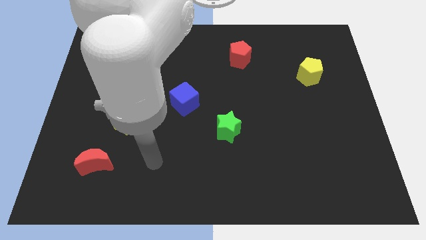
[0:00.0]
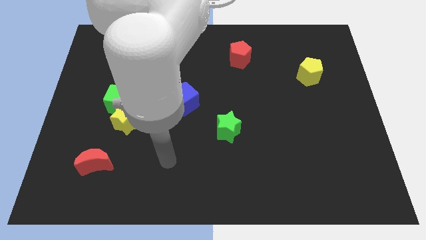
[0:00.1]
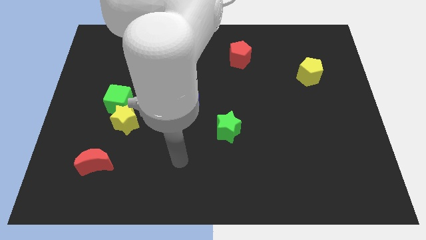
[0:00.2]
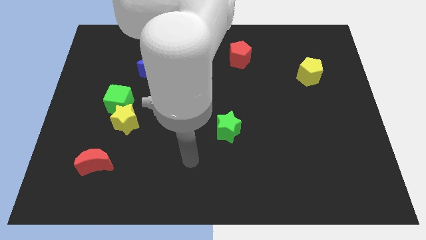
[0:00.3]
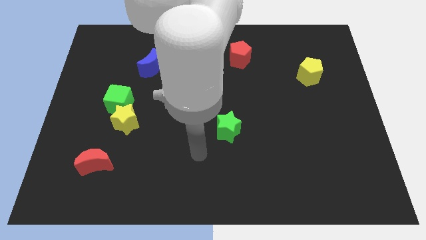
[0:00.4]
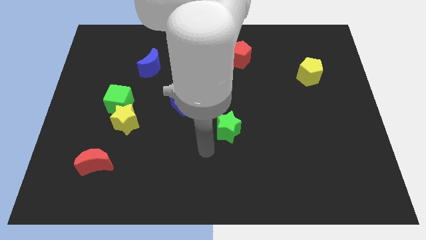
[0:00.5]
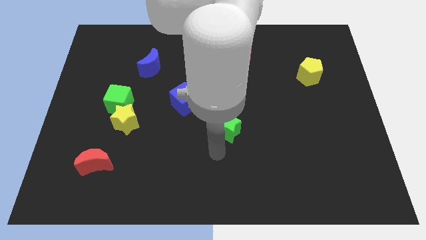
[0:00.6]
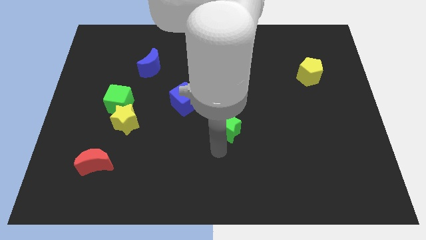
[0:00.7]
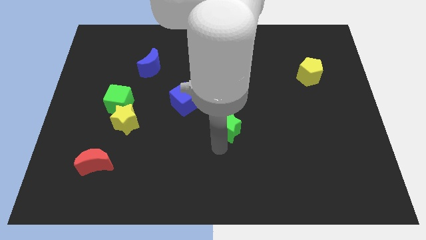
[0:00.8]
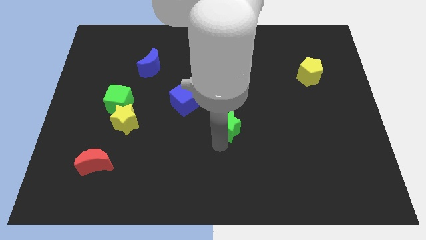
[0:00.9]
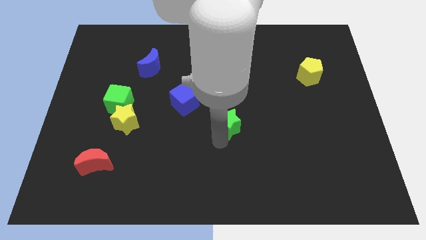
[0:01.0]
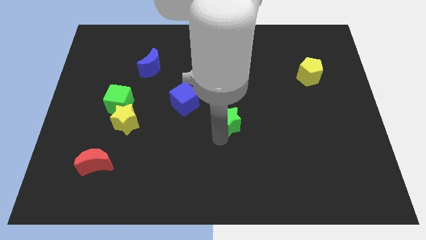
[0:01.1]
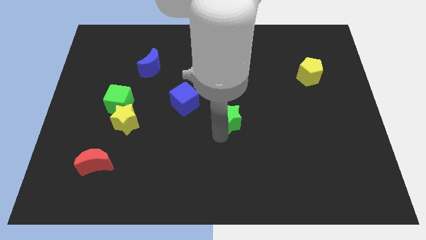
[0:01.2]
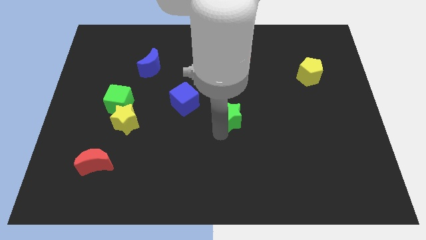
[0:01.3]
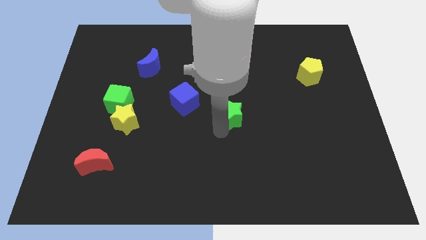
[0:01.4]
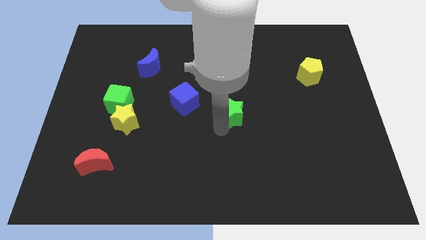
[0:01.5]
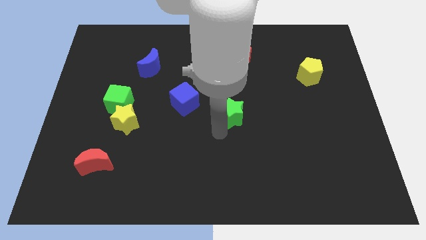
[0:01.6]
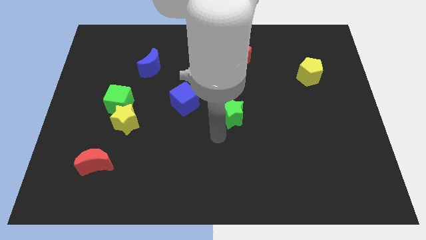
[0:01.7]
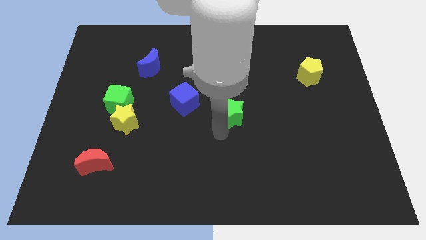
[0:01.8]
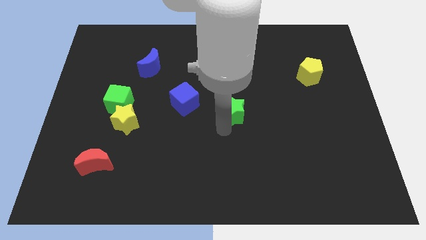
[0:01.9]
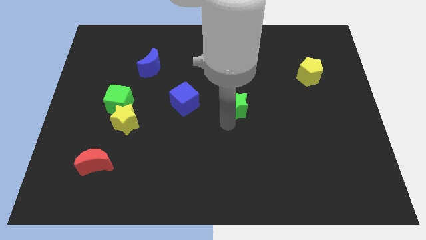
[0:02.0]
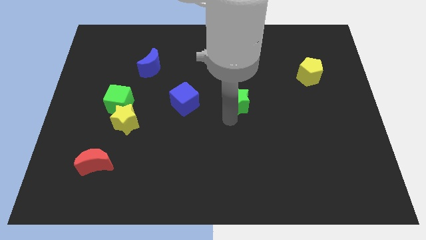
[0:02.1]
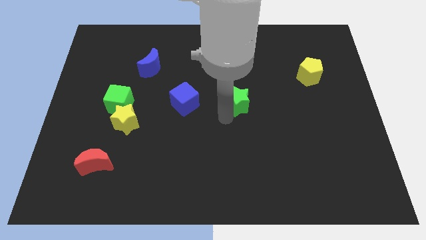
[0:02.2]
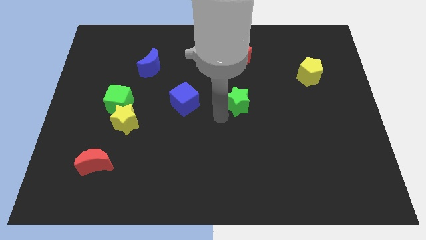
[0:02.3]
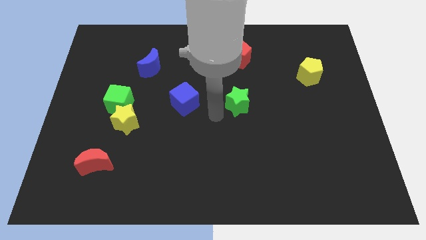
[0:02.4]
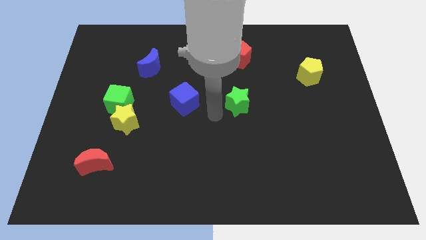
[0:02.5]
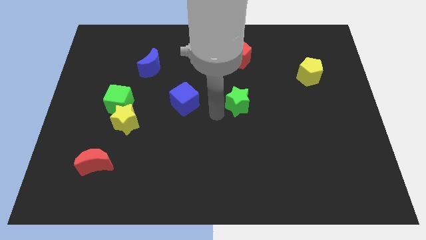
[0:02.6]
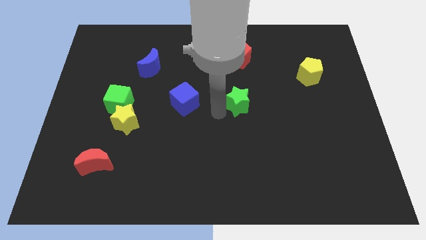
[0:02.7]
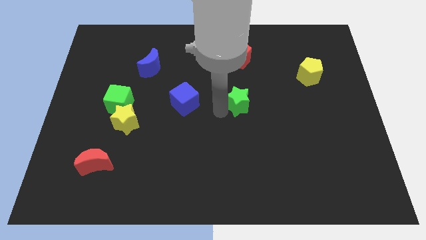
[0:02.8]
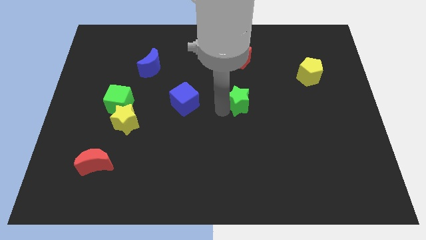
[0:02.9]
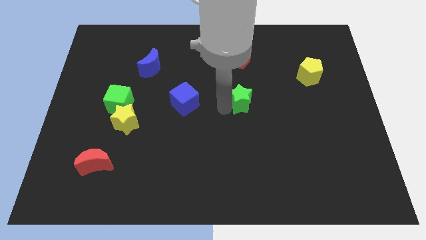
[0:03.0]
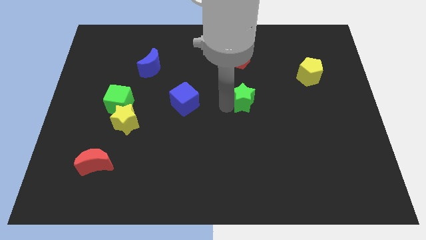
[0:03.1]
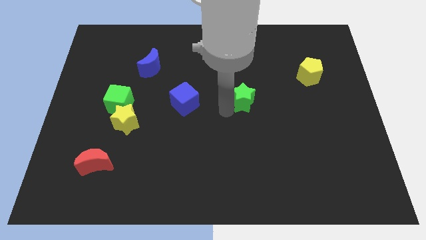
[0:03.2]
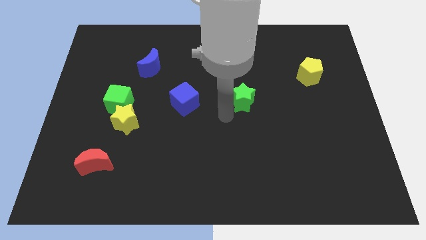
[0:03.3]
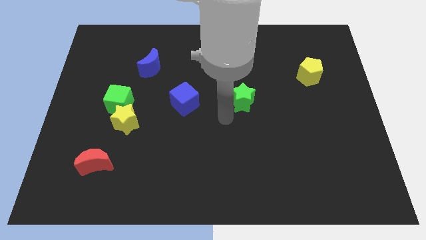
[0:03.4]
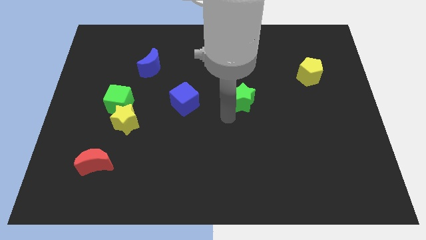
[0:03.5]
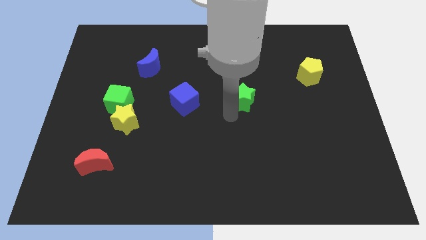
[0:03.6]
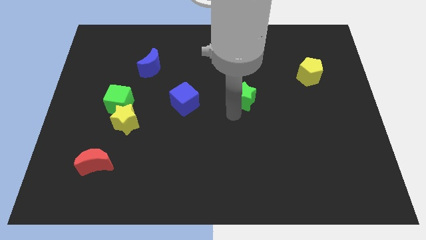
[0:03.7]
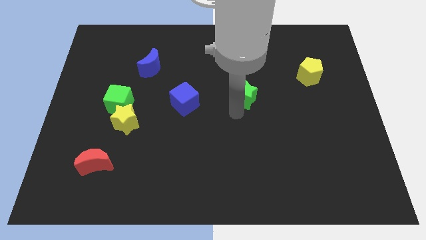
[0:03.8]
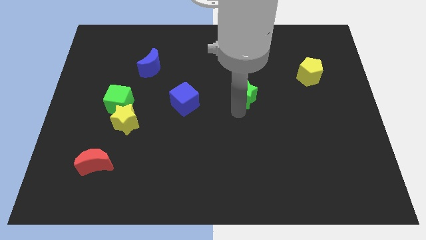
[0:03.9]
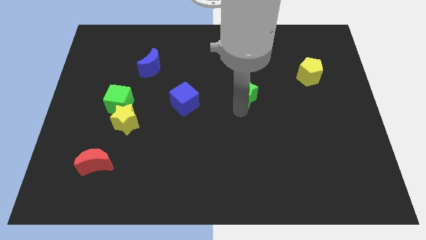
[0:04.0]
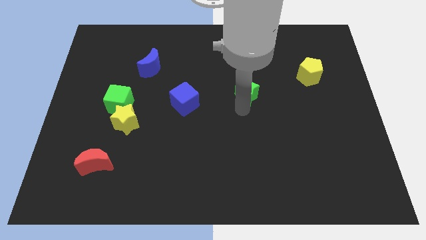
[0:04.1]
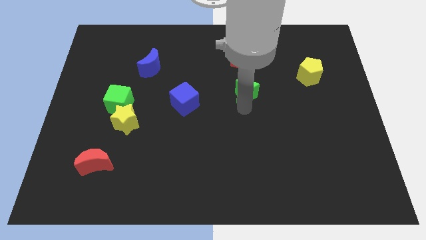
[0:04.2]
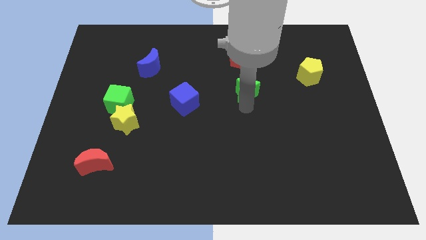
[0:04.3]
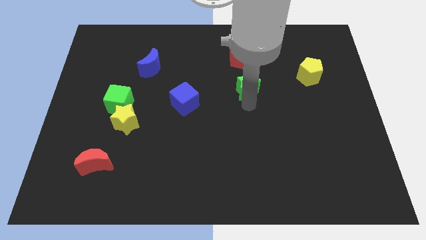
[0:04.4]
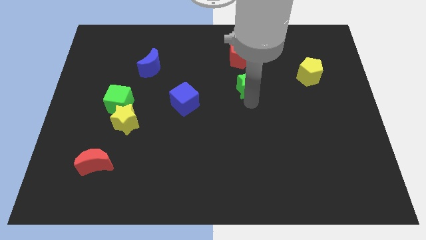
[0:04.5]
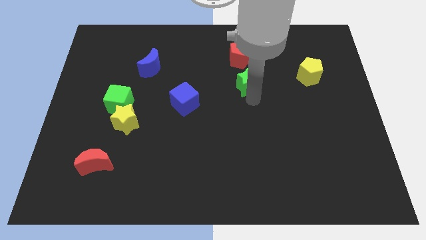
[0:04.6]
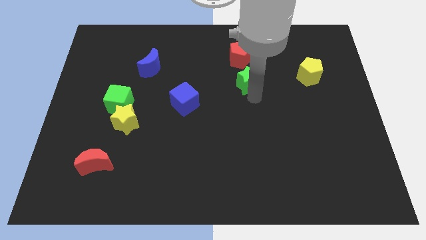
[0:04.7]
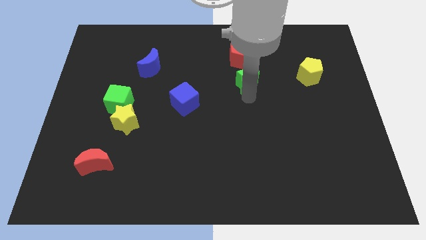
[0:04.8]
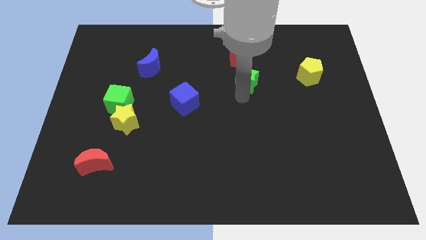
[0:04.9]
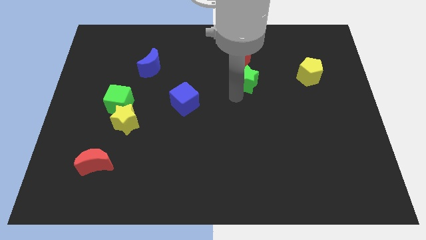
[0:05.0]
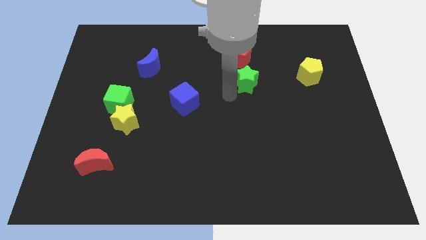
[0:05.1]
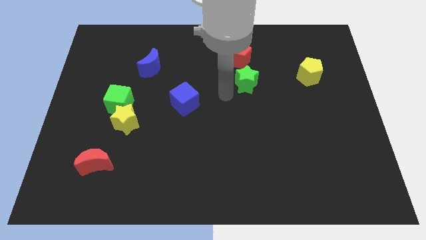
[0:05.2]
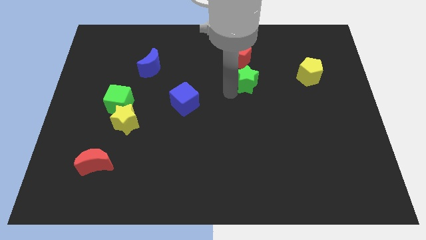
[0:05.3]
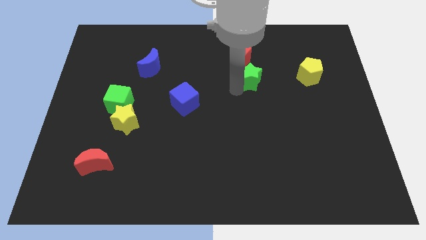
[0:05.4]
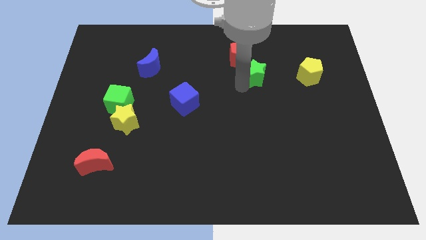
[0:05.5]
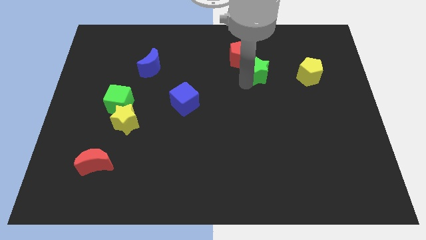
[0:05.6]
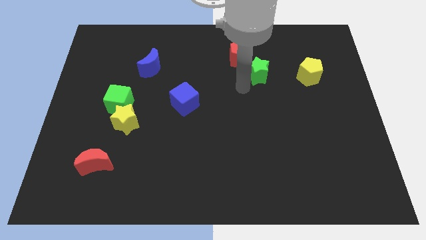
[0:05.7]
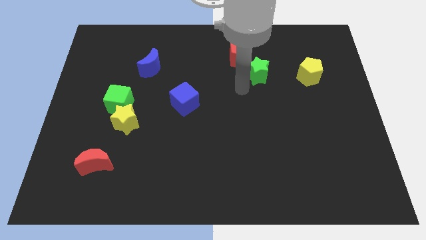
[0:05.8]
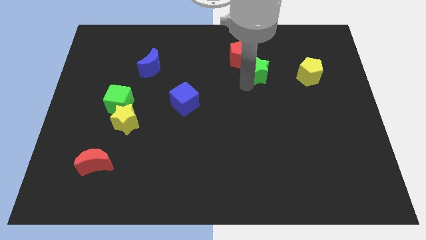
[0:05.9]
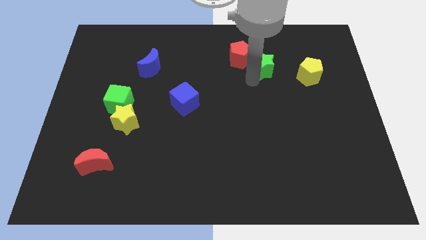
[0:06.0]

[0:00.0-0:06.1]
slide the green star to the right side of the red pentagon

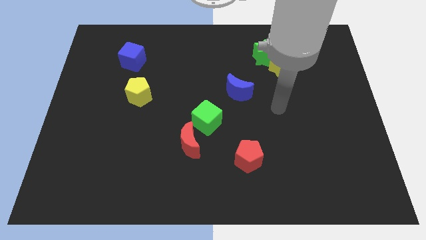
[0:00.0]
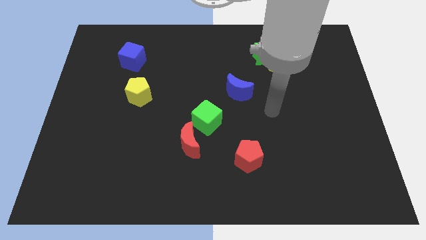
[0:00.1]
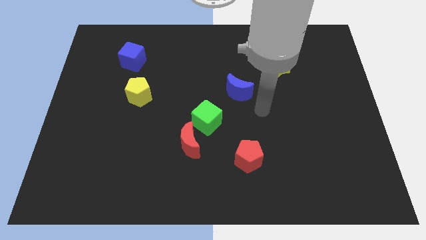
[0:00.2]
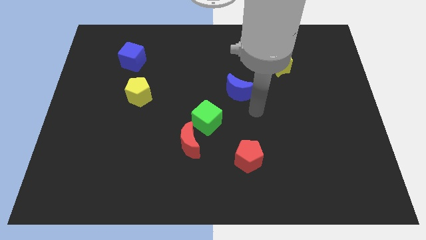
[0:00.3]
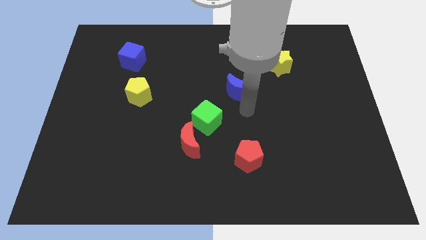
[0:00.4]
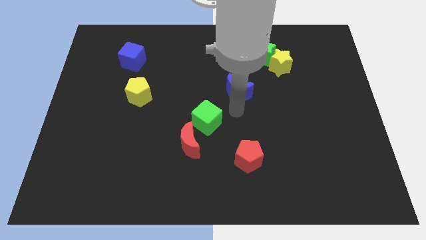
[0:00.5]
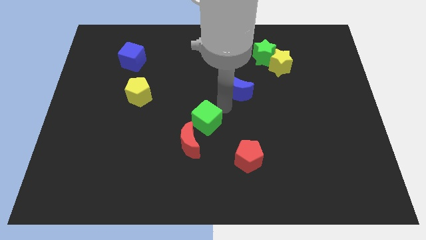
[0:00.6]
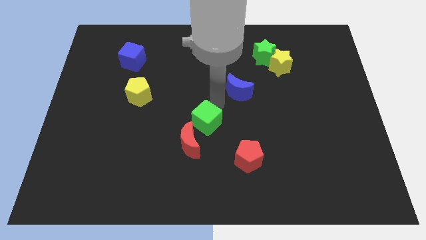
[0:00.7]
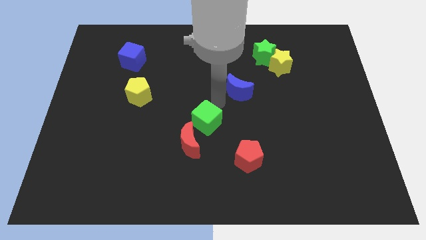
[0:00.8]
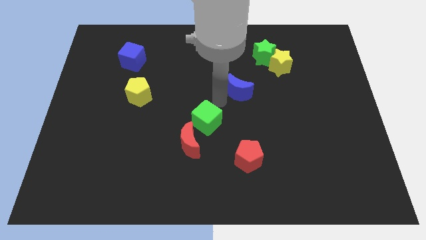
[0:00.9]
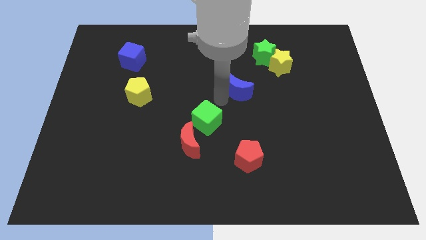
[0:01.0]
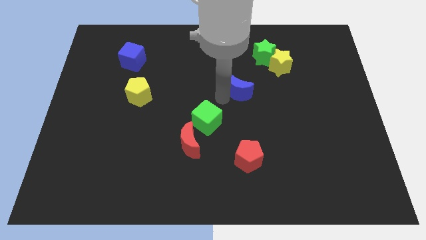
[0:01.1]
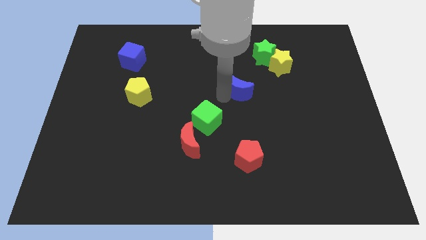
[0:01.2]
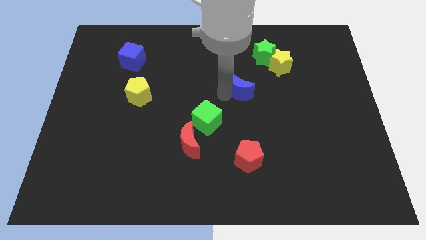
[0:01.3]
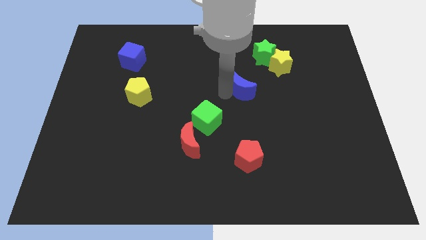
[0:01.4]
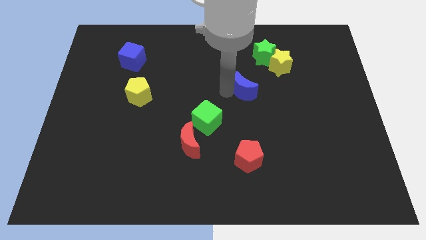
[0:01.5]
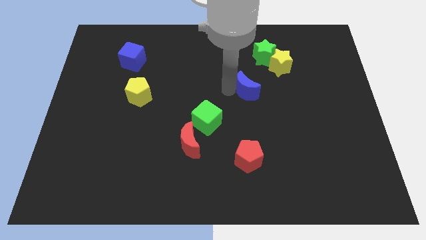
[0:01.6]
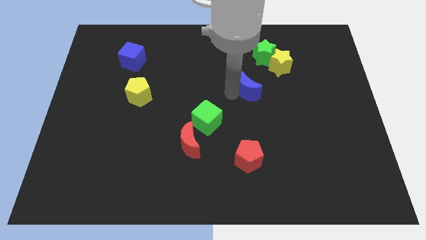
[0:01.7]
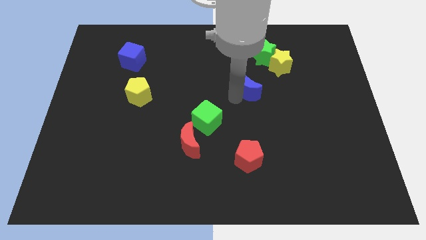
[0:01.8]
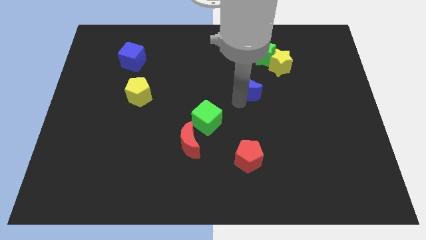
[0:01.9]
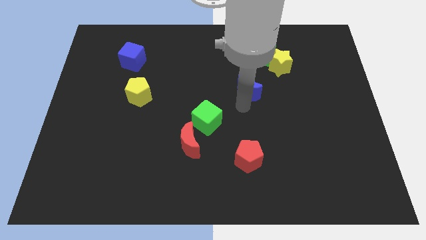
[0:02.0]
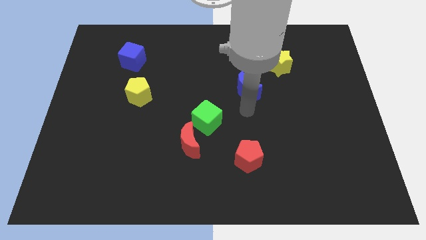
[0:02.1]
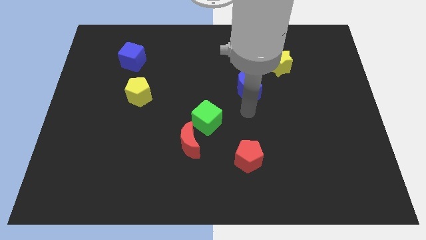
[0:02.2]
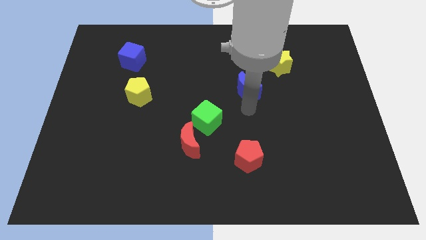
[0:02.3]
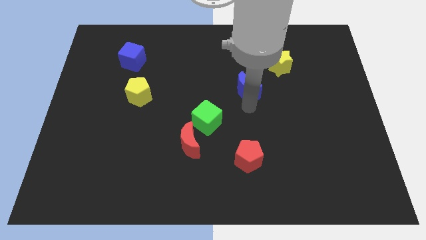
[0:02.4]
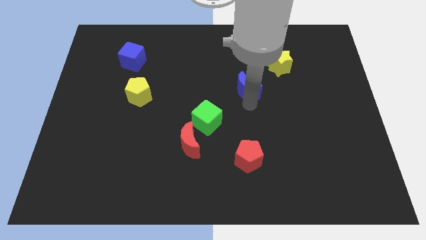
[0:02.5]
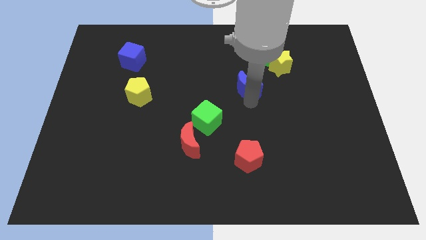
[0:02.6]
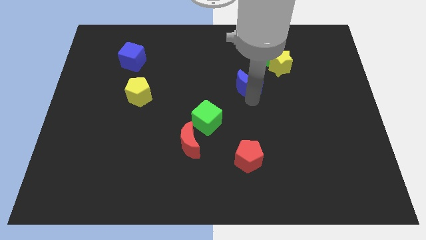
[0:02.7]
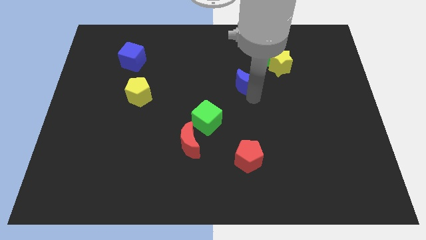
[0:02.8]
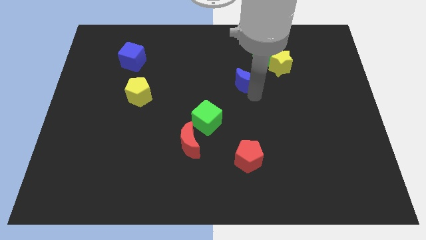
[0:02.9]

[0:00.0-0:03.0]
put the blue moon to the bottom left side of the green star
